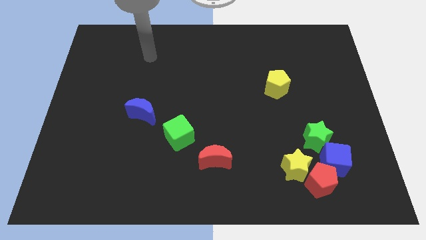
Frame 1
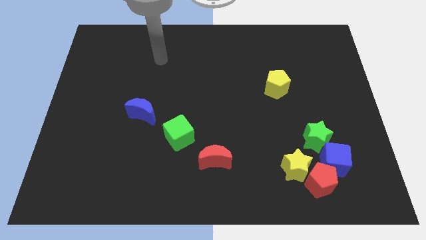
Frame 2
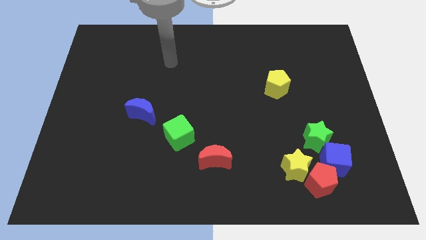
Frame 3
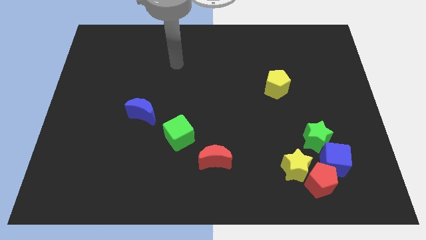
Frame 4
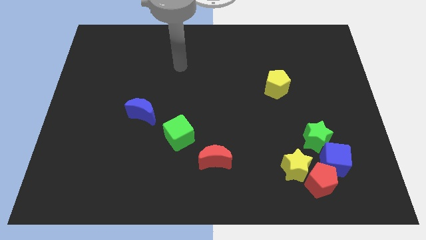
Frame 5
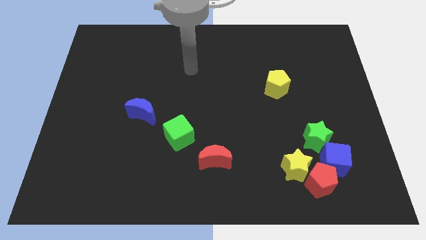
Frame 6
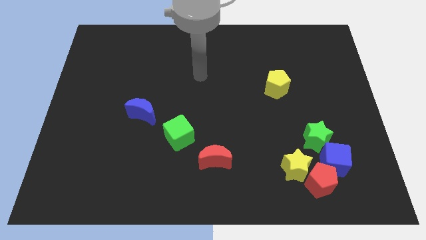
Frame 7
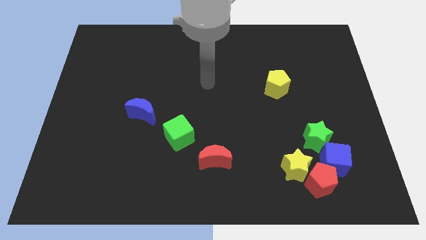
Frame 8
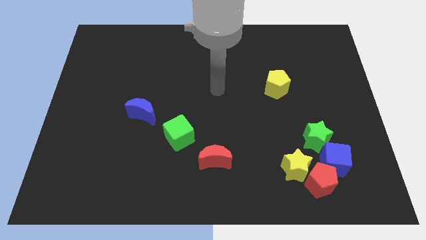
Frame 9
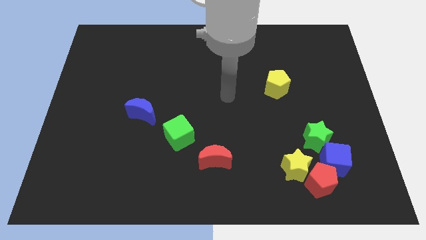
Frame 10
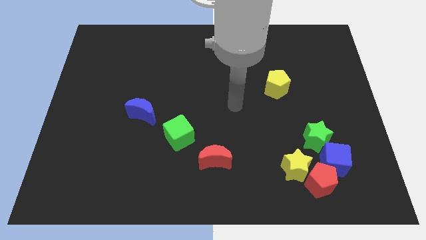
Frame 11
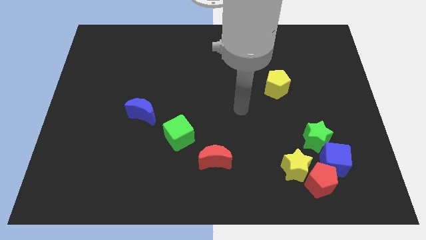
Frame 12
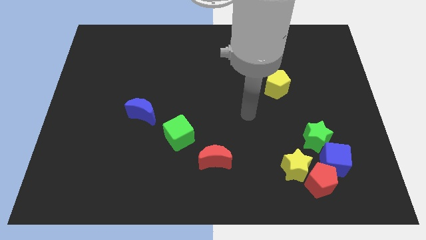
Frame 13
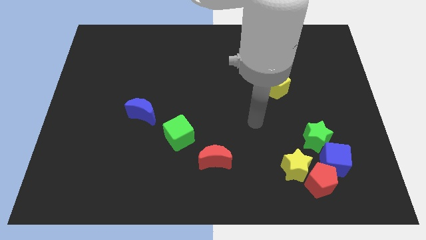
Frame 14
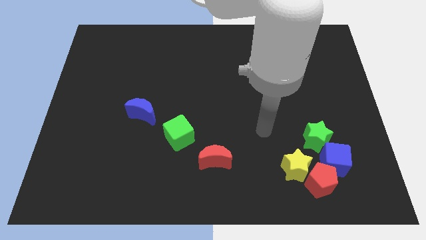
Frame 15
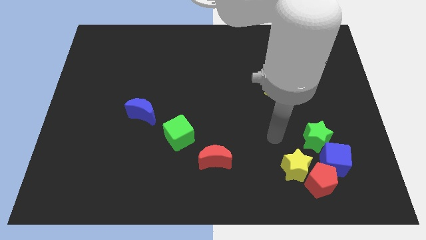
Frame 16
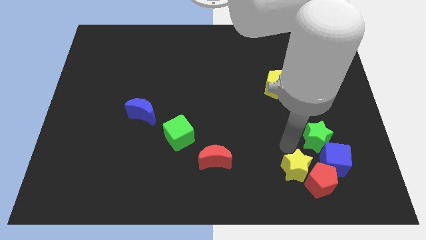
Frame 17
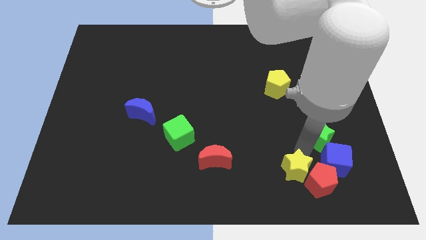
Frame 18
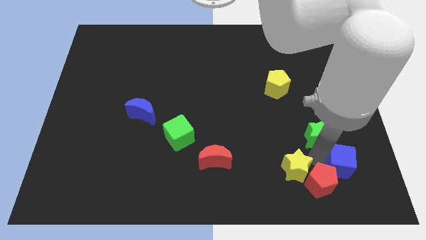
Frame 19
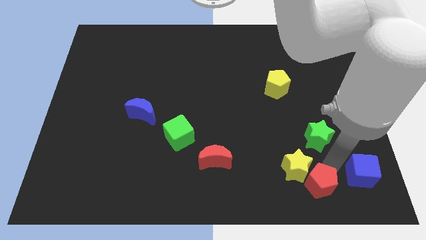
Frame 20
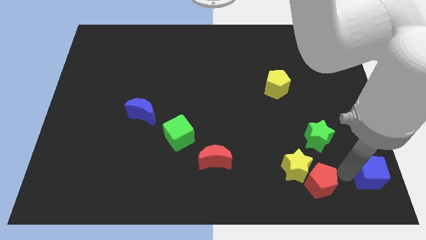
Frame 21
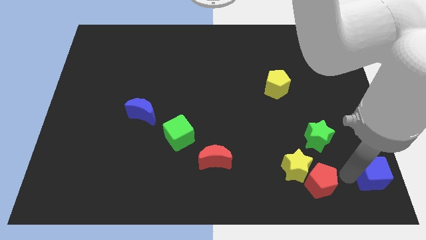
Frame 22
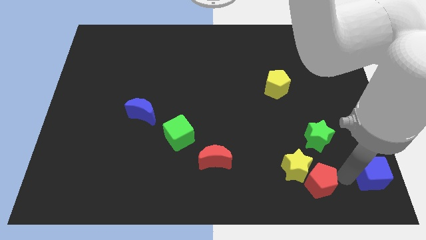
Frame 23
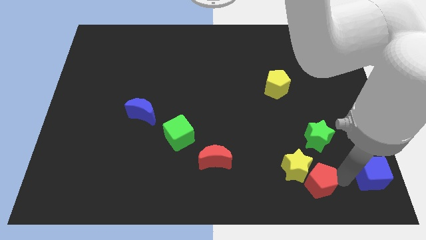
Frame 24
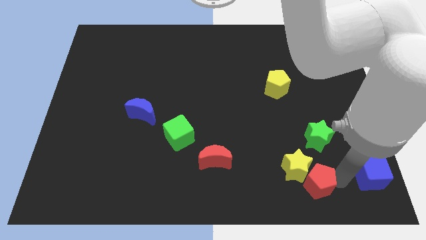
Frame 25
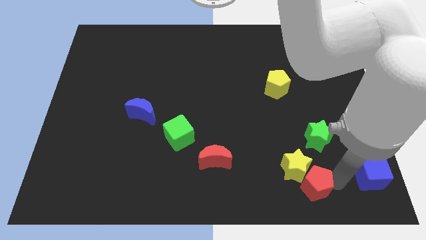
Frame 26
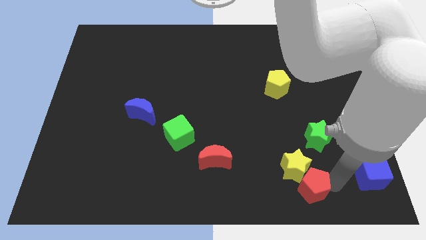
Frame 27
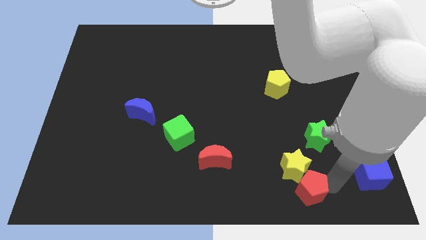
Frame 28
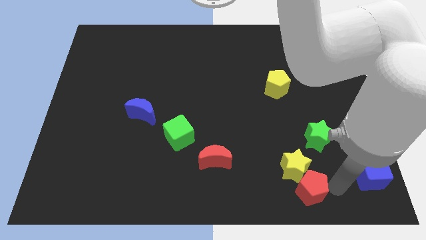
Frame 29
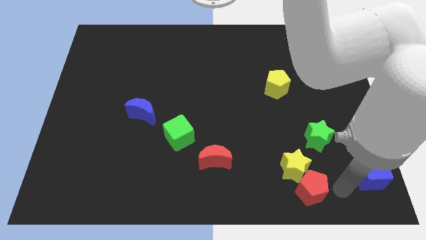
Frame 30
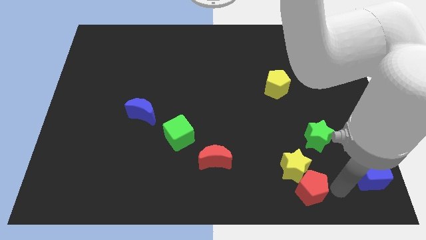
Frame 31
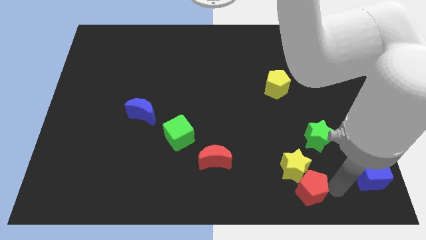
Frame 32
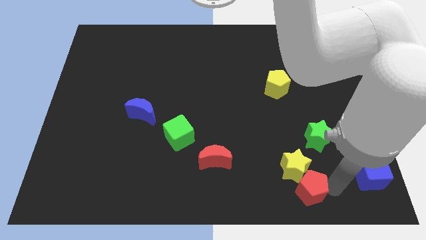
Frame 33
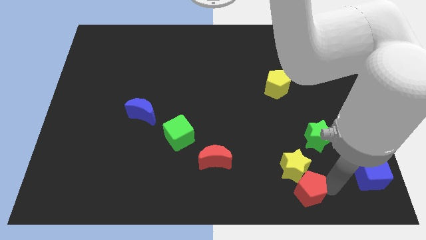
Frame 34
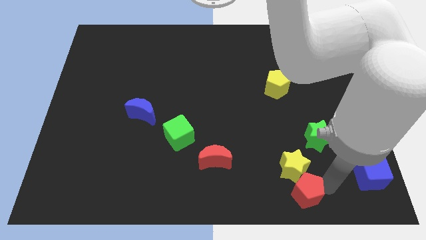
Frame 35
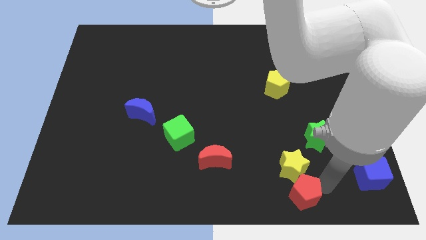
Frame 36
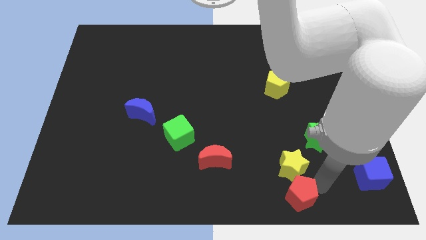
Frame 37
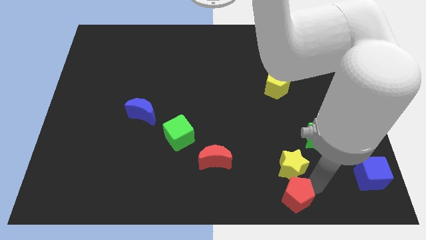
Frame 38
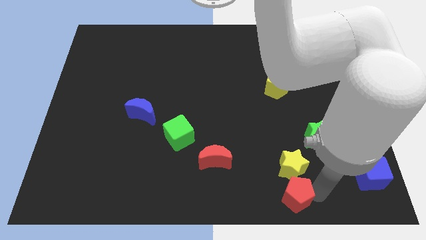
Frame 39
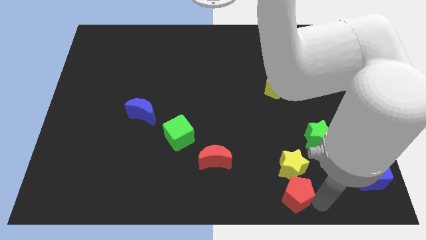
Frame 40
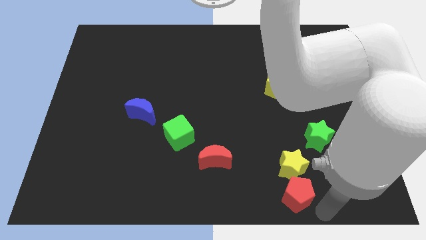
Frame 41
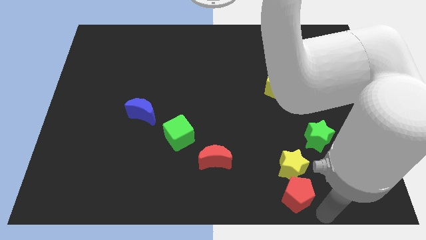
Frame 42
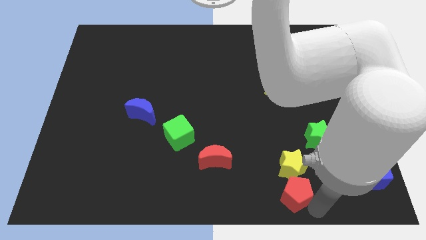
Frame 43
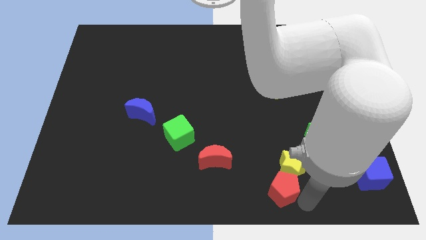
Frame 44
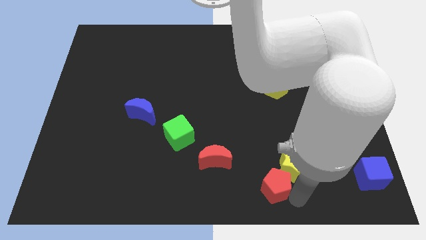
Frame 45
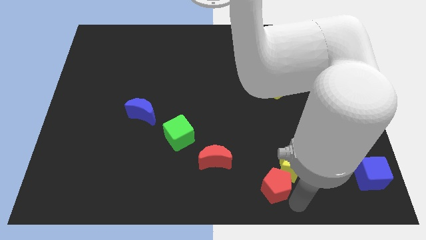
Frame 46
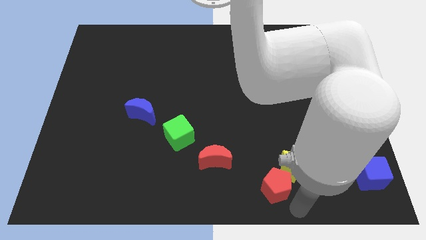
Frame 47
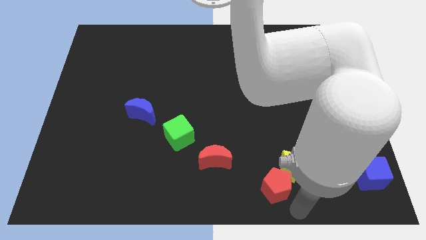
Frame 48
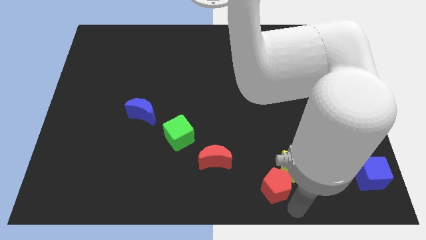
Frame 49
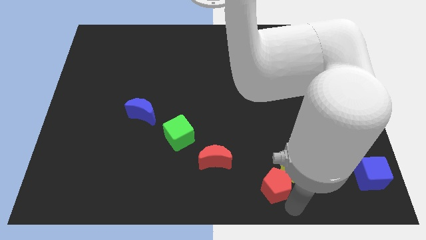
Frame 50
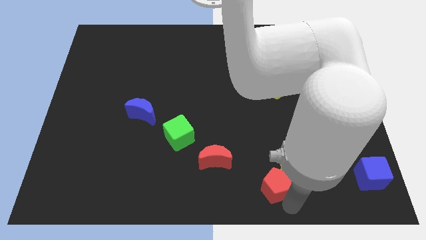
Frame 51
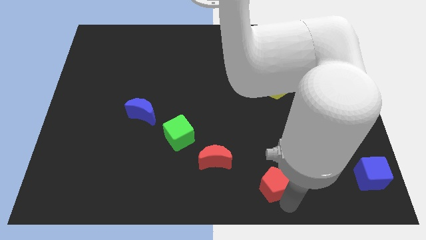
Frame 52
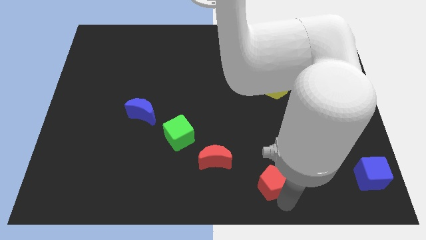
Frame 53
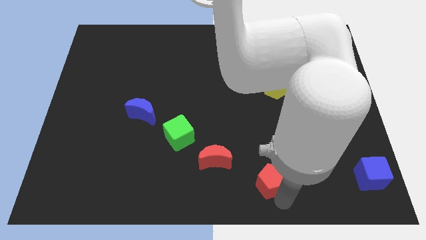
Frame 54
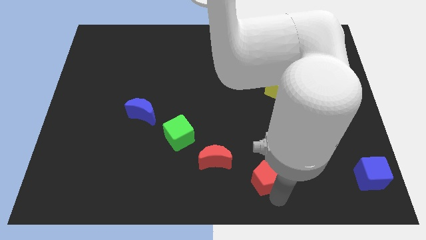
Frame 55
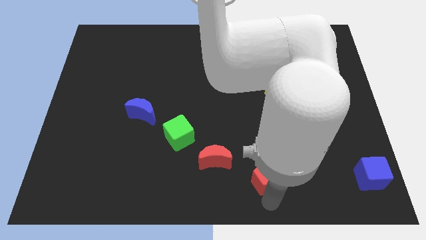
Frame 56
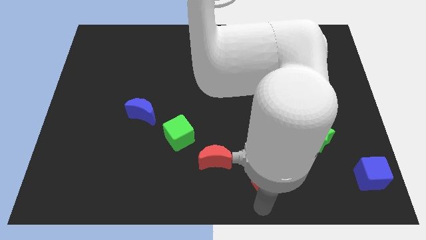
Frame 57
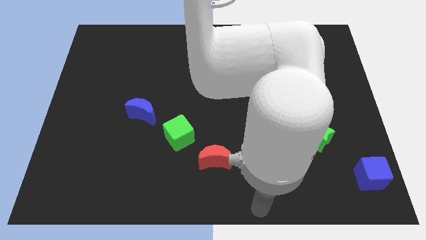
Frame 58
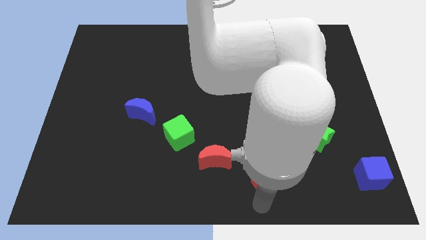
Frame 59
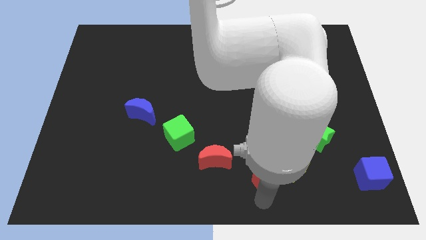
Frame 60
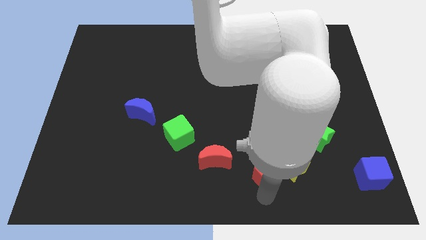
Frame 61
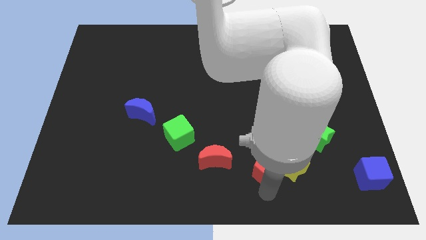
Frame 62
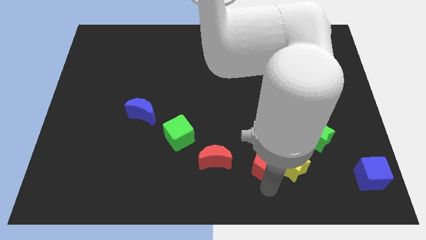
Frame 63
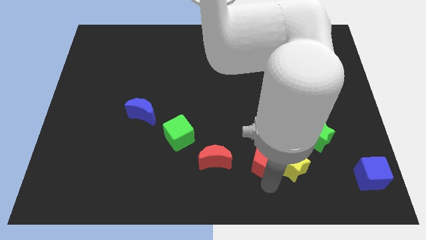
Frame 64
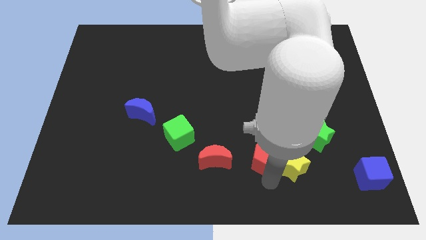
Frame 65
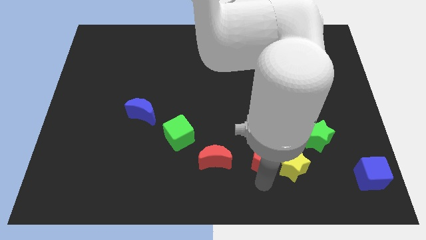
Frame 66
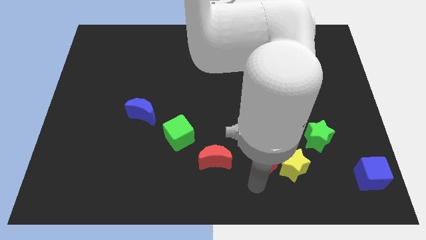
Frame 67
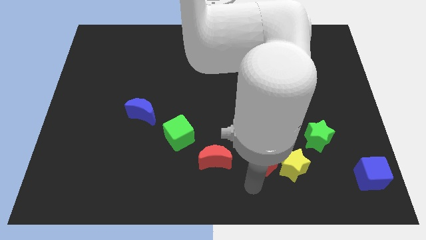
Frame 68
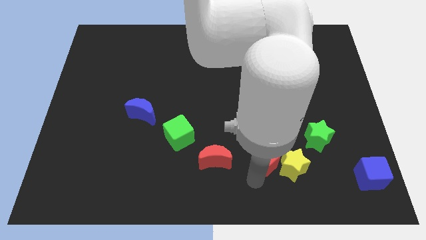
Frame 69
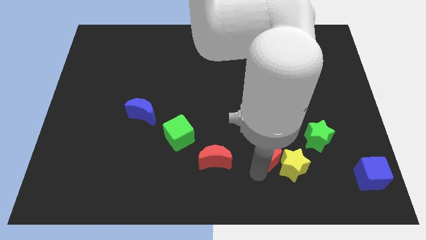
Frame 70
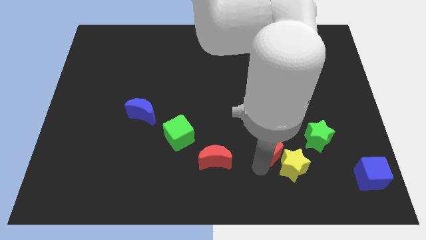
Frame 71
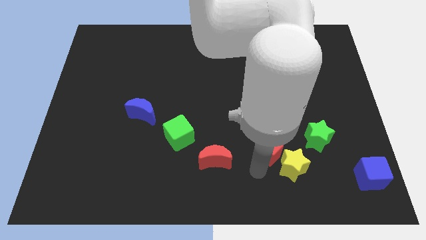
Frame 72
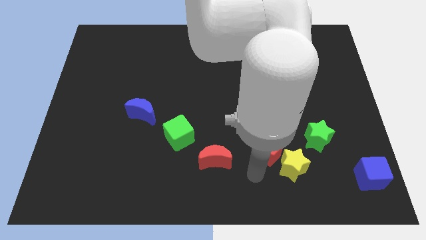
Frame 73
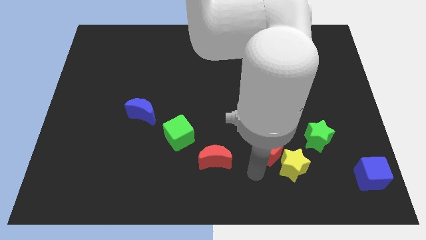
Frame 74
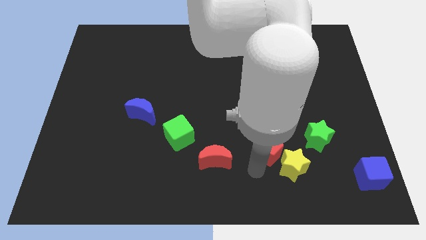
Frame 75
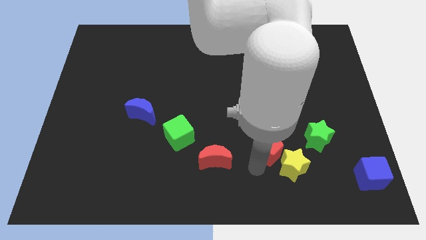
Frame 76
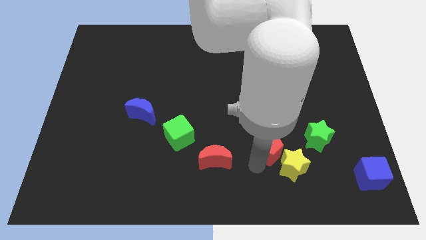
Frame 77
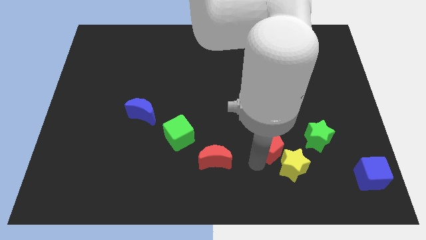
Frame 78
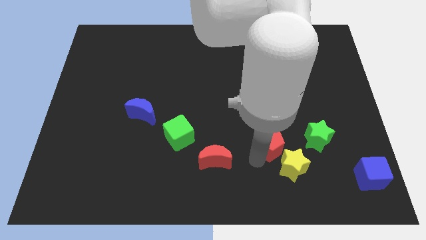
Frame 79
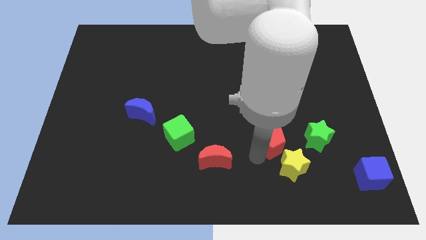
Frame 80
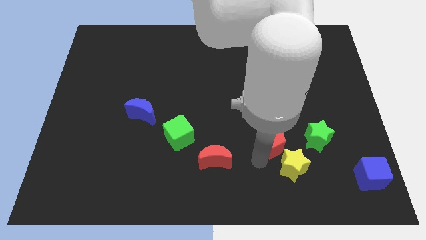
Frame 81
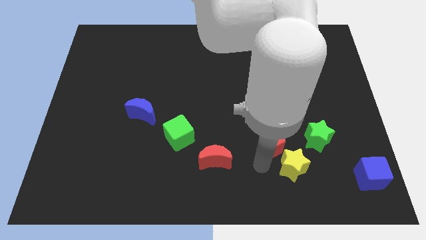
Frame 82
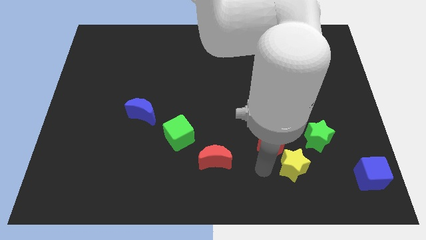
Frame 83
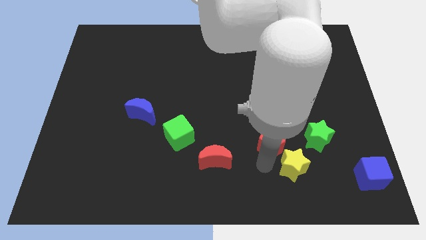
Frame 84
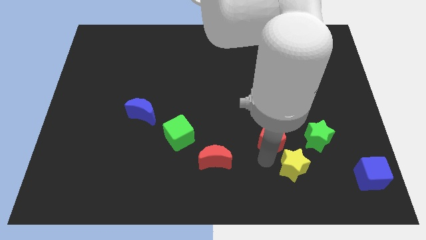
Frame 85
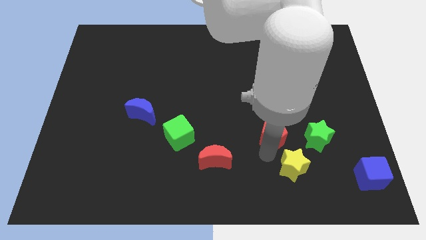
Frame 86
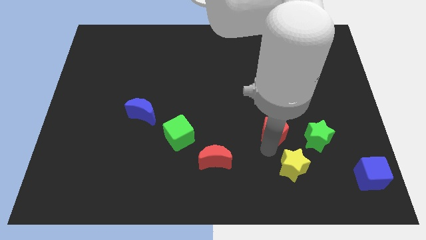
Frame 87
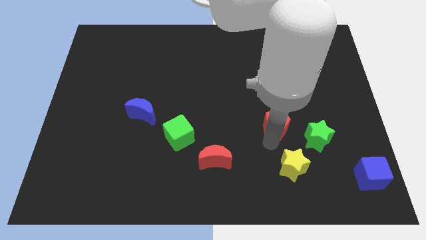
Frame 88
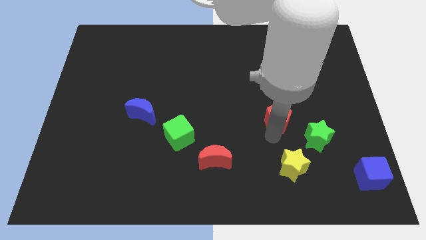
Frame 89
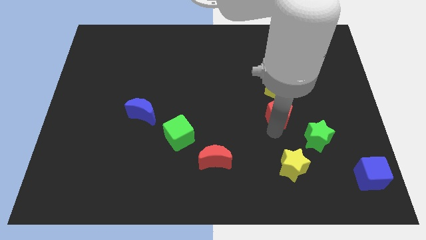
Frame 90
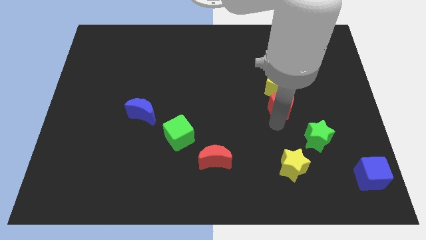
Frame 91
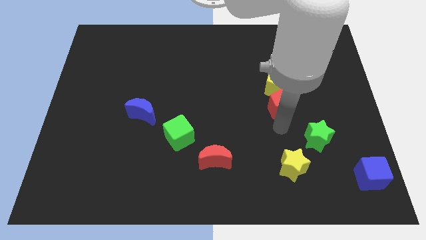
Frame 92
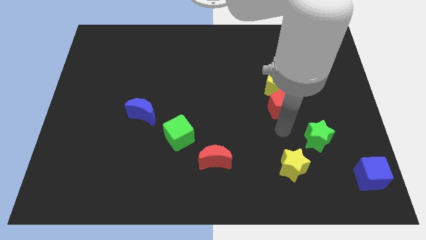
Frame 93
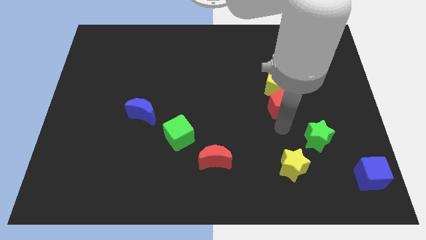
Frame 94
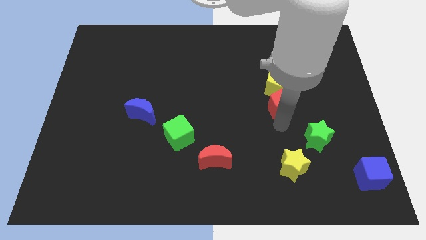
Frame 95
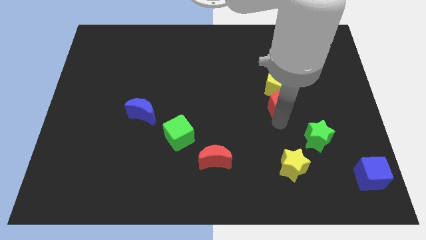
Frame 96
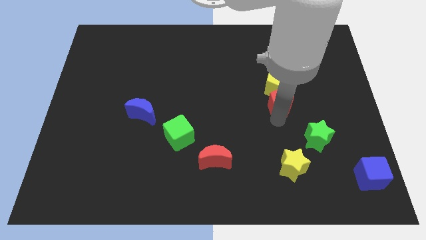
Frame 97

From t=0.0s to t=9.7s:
put the red pentagon to the yellow pentagon
